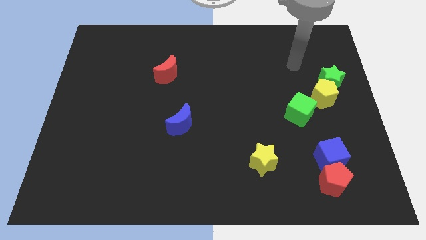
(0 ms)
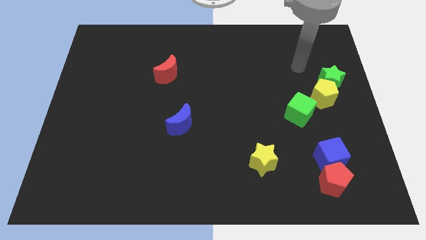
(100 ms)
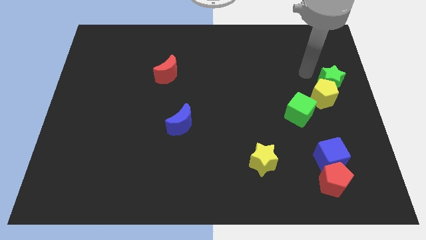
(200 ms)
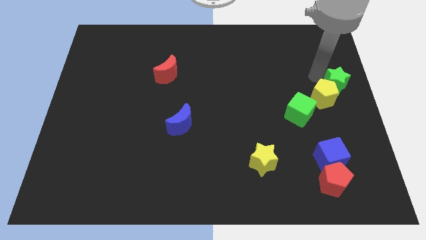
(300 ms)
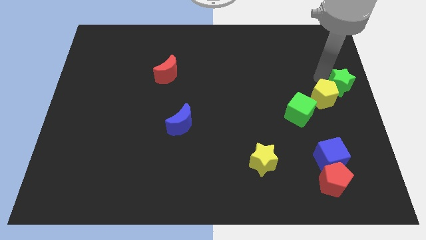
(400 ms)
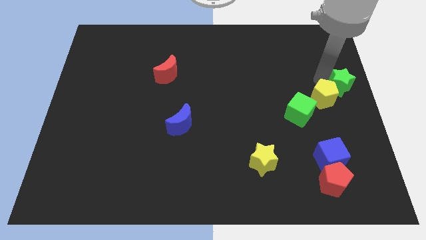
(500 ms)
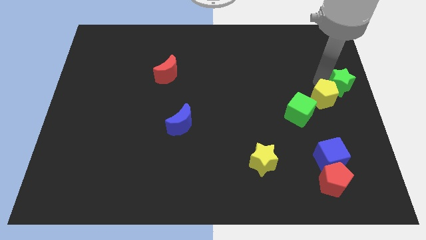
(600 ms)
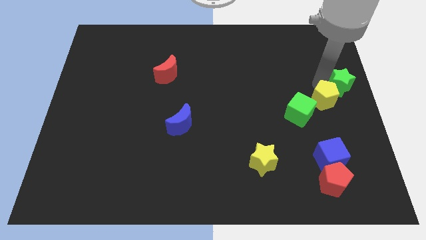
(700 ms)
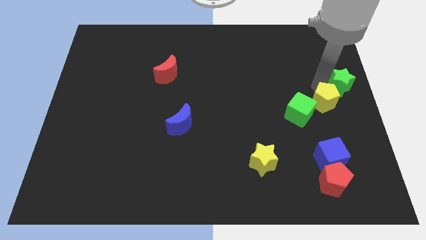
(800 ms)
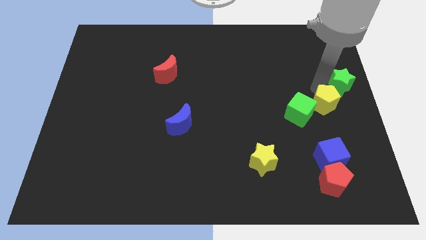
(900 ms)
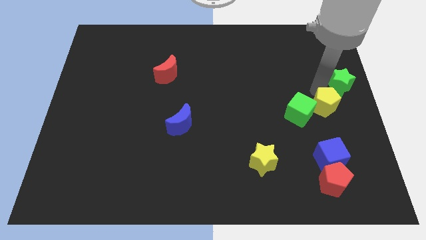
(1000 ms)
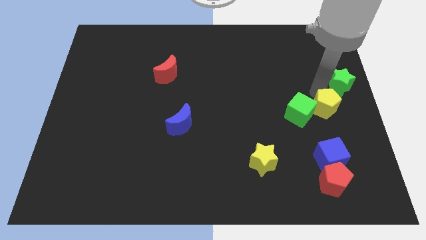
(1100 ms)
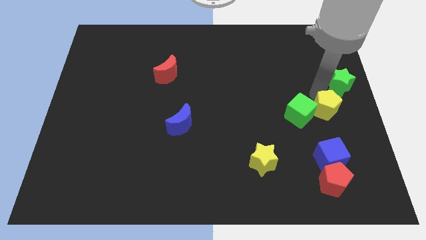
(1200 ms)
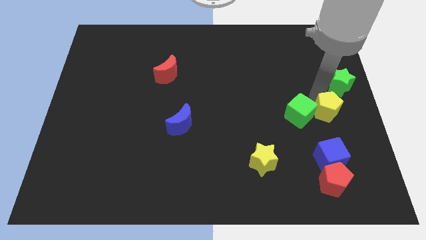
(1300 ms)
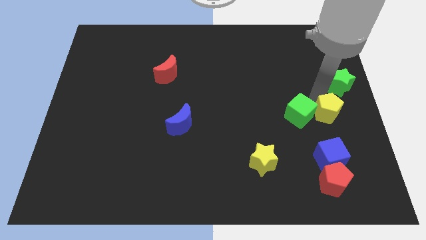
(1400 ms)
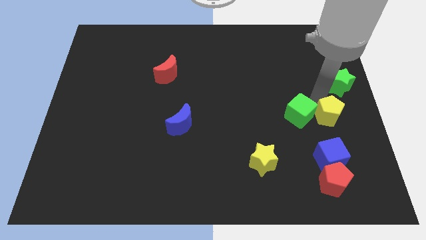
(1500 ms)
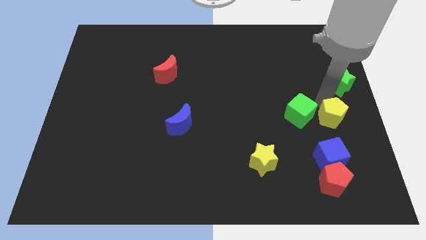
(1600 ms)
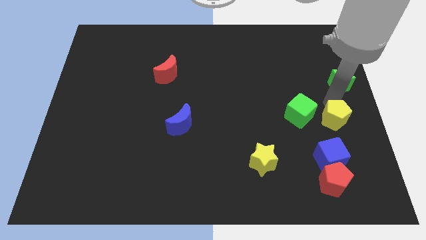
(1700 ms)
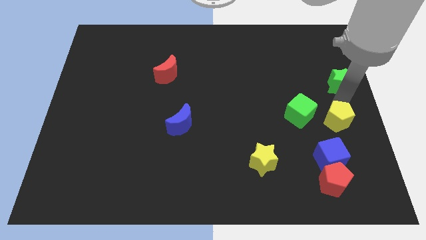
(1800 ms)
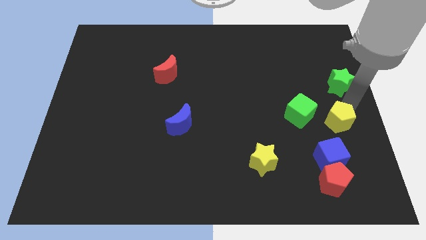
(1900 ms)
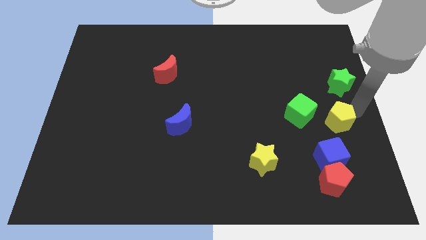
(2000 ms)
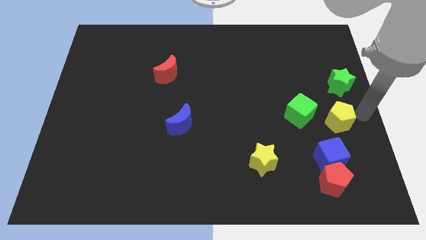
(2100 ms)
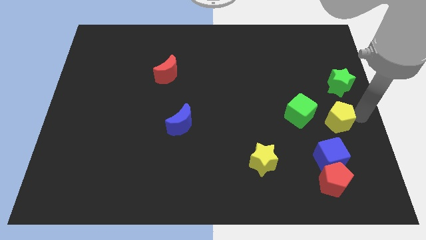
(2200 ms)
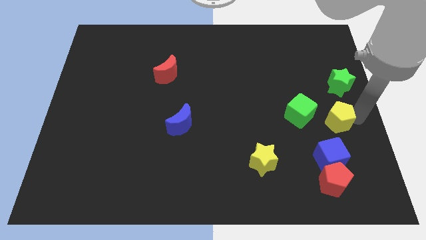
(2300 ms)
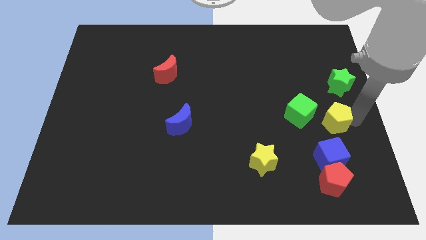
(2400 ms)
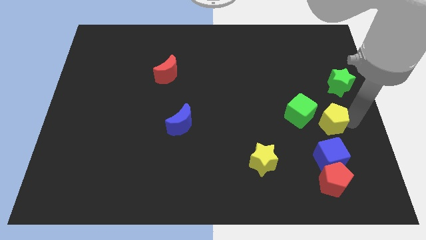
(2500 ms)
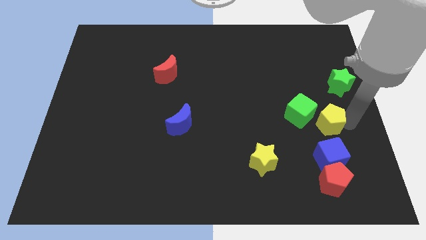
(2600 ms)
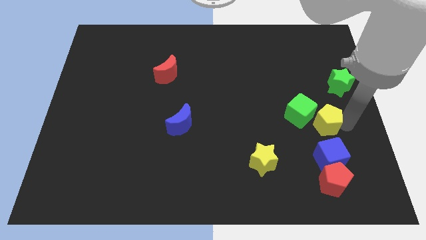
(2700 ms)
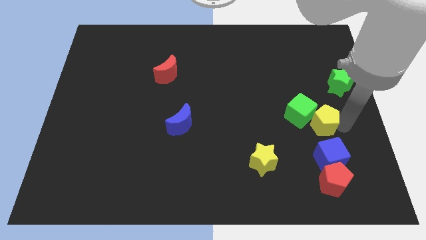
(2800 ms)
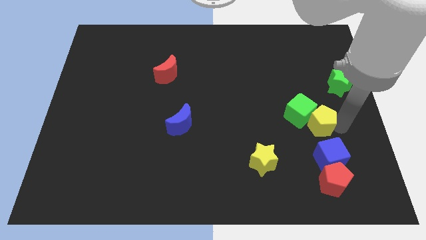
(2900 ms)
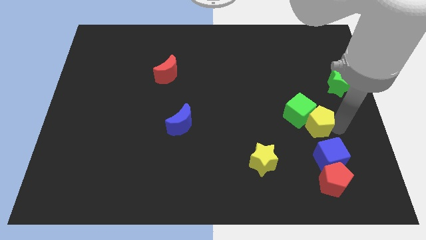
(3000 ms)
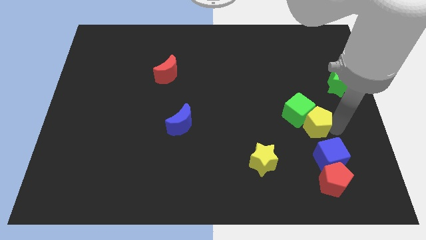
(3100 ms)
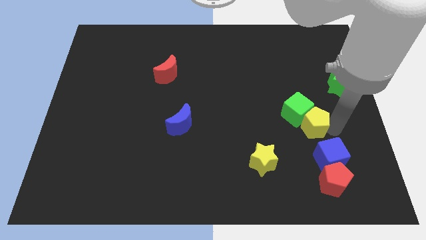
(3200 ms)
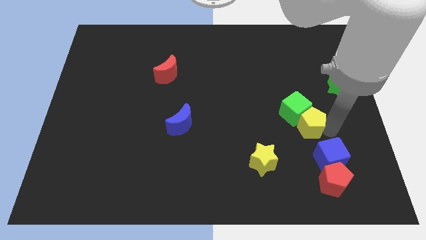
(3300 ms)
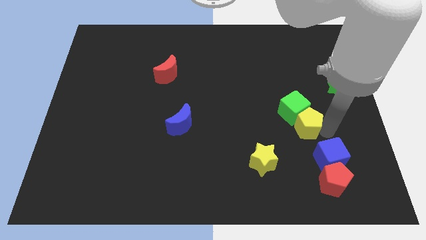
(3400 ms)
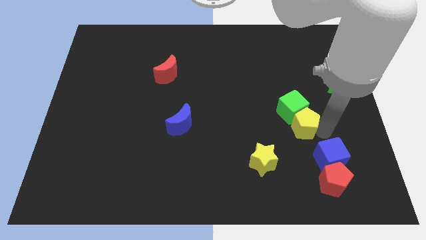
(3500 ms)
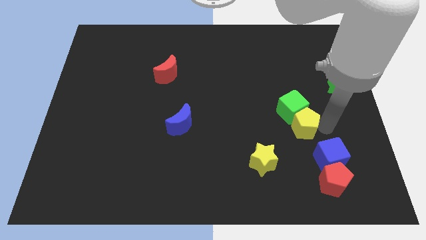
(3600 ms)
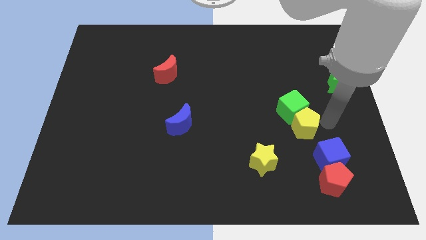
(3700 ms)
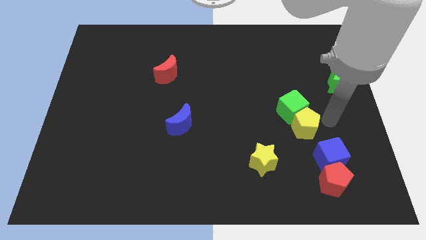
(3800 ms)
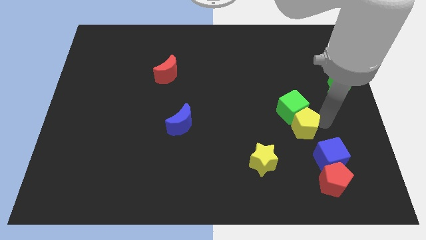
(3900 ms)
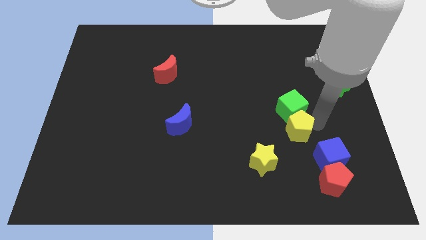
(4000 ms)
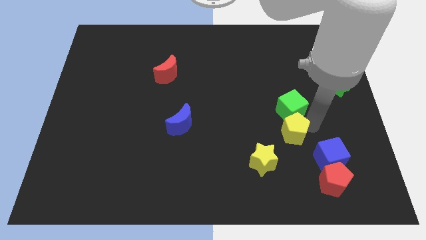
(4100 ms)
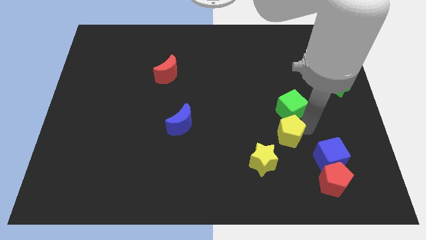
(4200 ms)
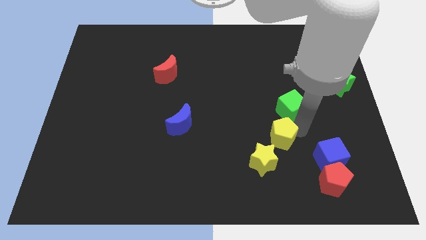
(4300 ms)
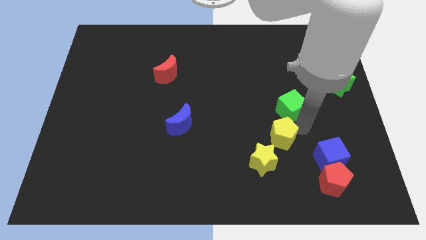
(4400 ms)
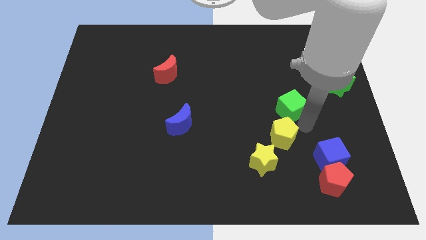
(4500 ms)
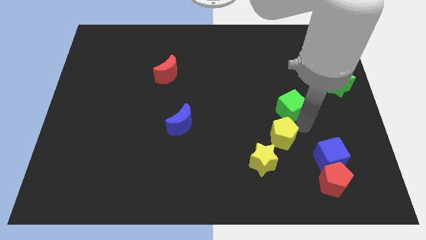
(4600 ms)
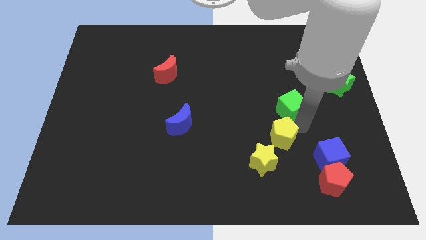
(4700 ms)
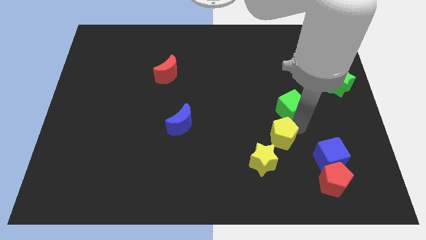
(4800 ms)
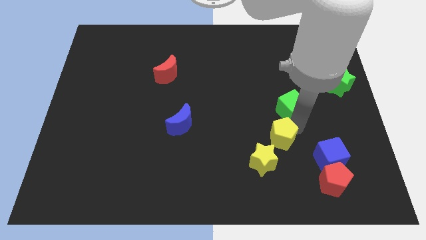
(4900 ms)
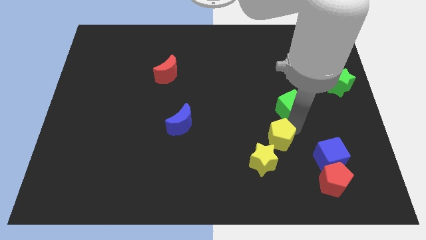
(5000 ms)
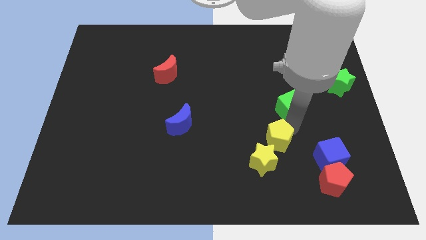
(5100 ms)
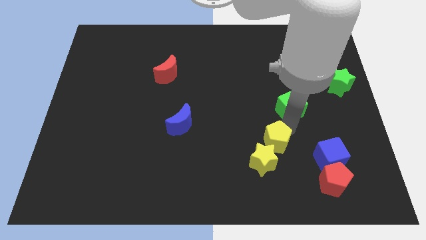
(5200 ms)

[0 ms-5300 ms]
slide the yellow pentagon close to the yellow star

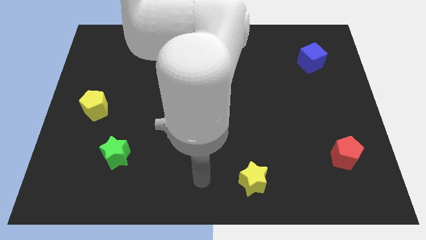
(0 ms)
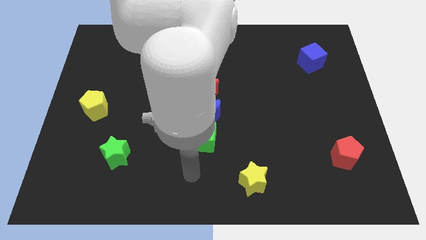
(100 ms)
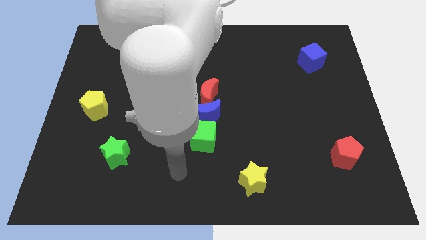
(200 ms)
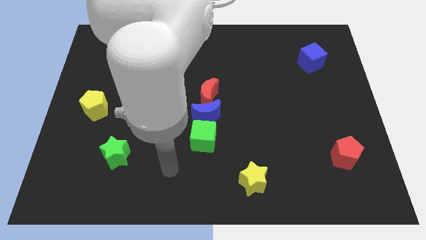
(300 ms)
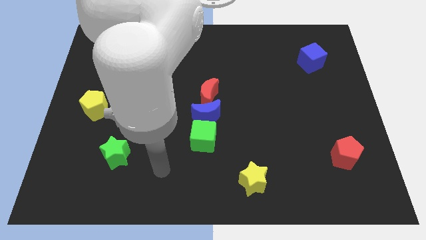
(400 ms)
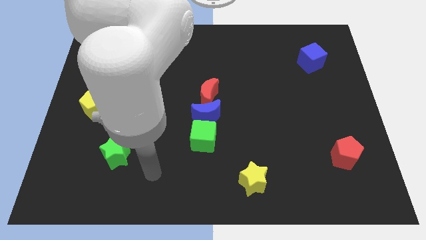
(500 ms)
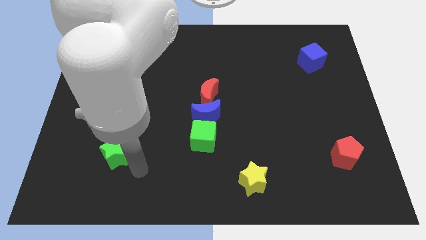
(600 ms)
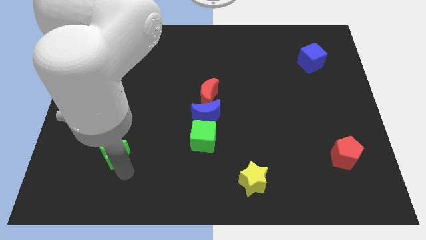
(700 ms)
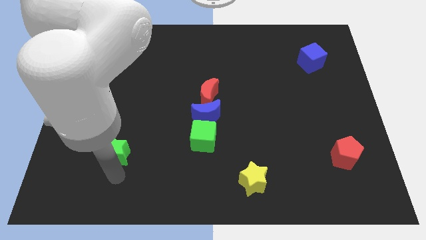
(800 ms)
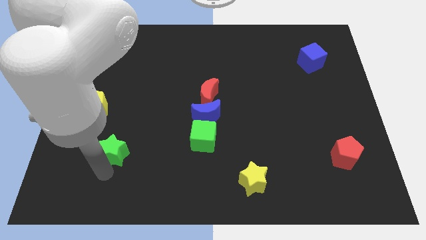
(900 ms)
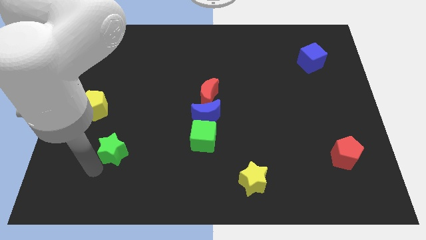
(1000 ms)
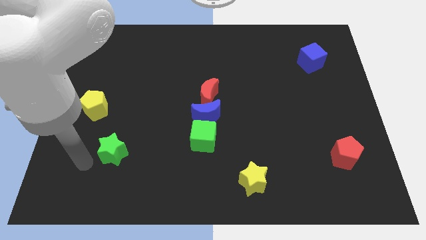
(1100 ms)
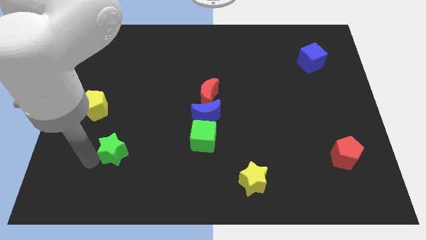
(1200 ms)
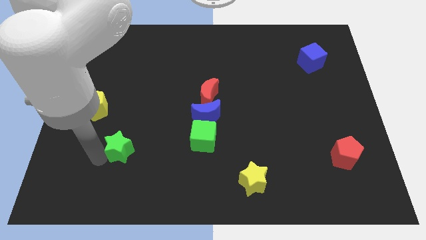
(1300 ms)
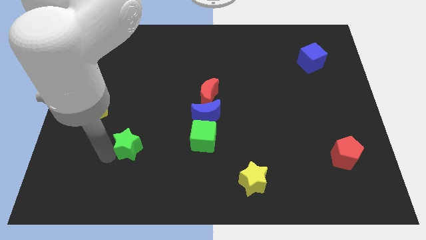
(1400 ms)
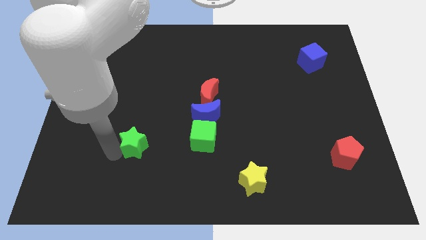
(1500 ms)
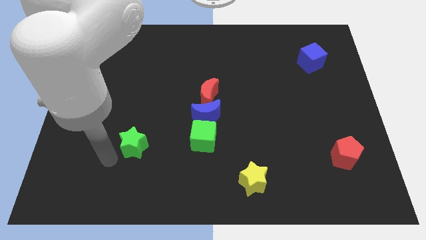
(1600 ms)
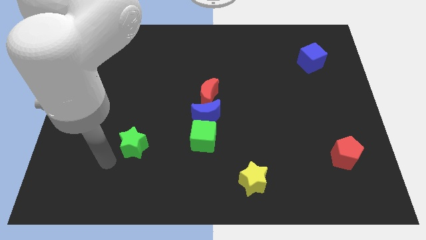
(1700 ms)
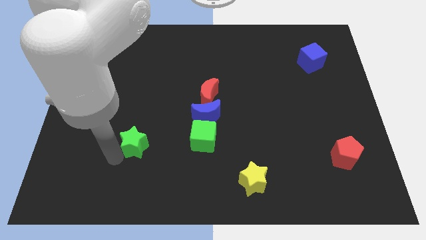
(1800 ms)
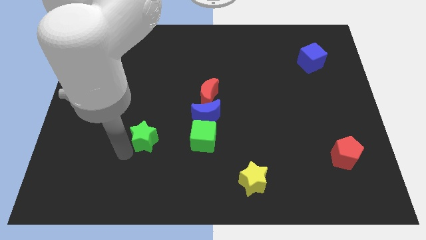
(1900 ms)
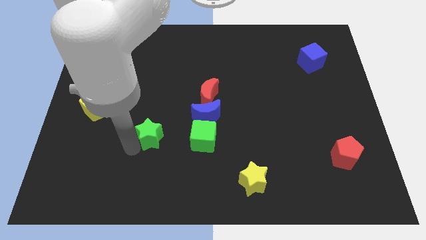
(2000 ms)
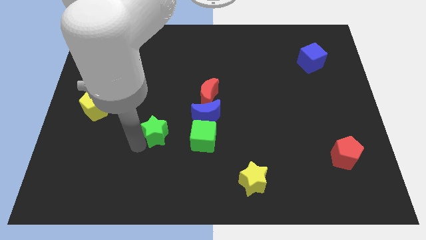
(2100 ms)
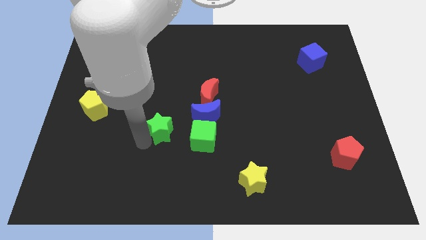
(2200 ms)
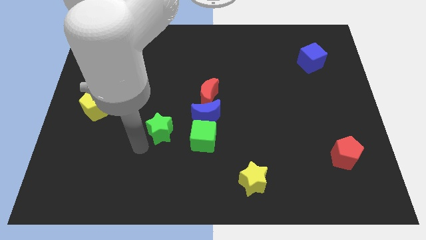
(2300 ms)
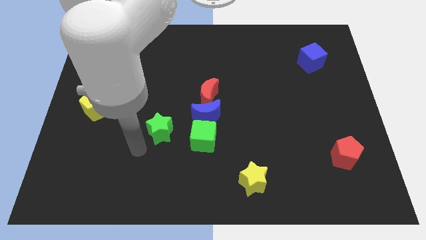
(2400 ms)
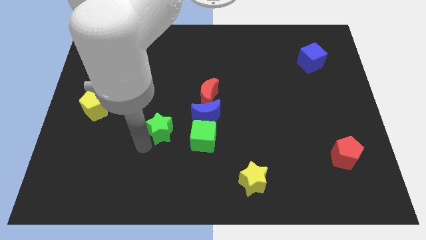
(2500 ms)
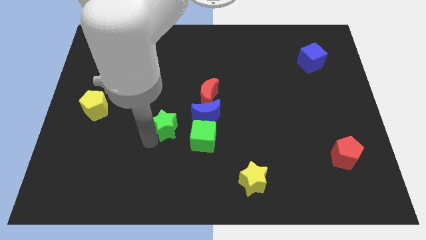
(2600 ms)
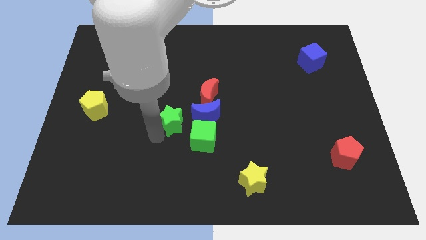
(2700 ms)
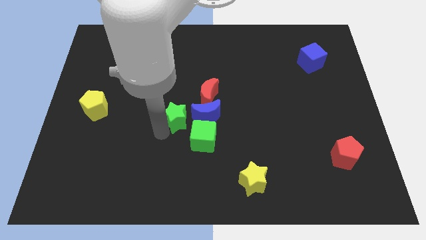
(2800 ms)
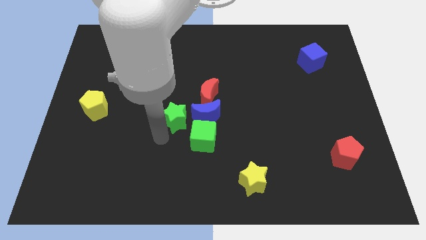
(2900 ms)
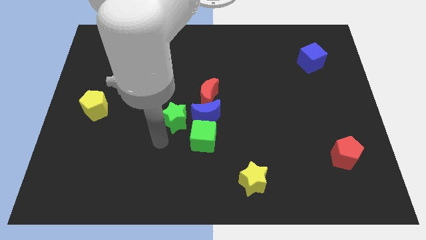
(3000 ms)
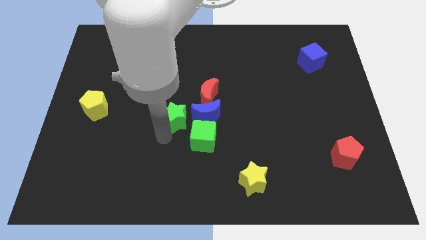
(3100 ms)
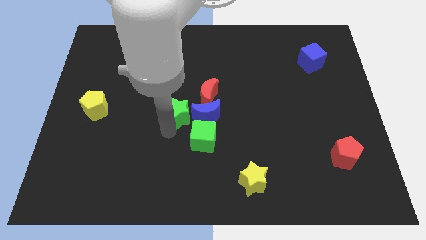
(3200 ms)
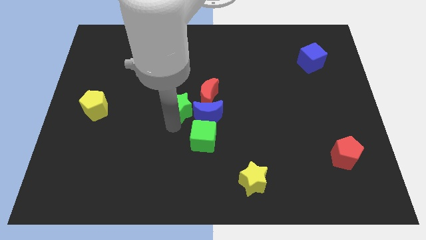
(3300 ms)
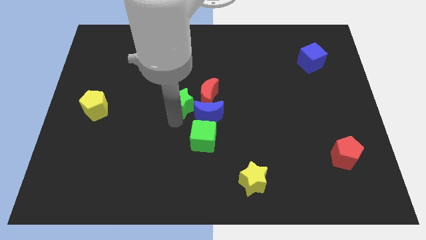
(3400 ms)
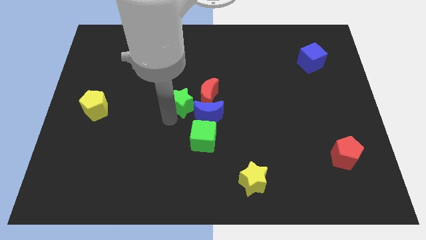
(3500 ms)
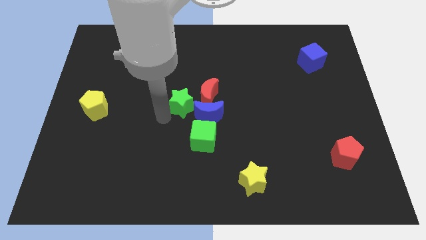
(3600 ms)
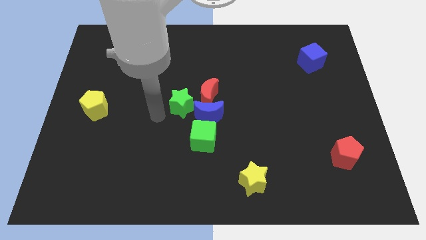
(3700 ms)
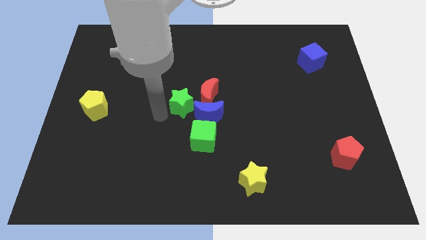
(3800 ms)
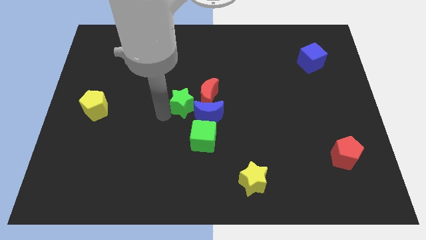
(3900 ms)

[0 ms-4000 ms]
move the green star to the red moon
